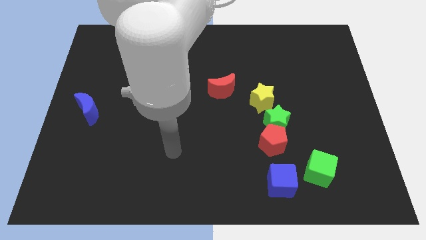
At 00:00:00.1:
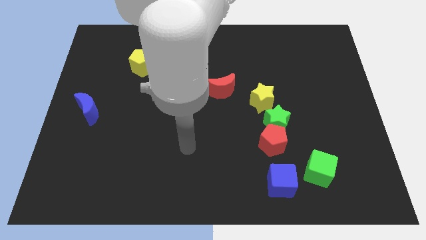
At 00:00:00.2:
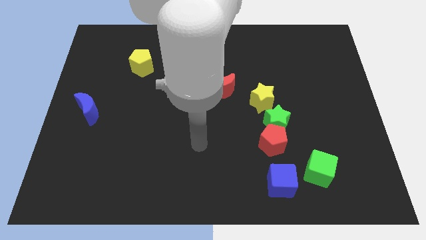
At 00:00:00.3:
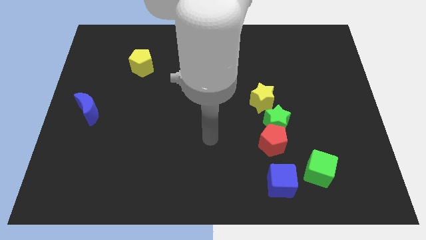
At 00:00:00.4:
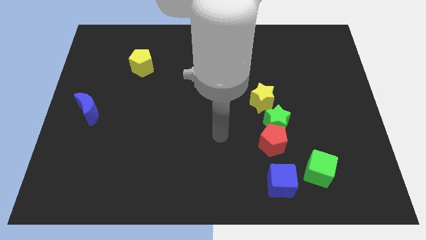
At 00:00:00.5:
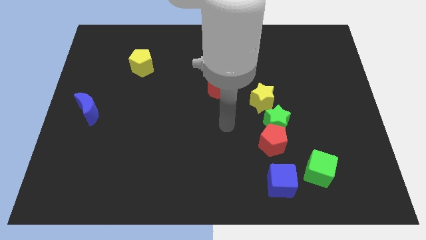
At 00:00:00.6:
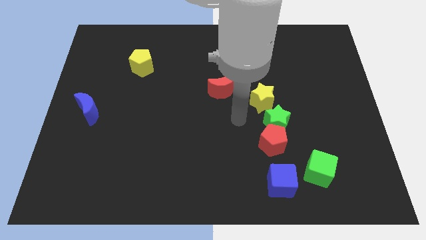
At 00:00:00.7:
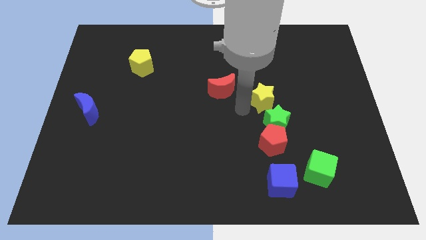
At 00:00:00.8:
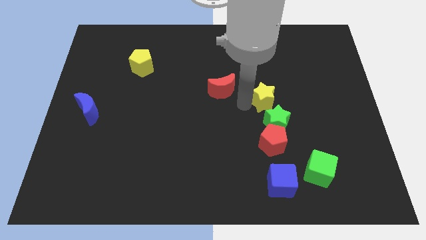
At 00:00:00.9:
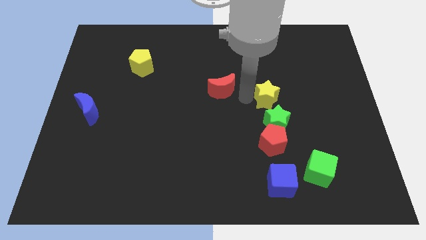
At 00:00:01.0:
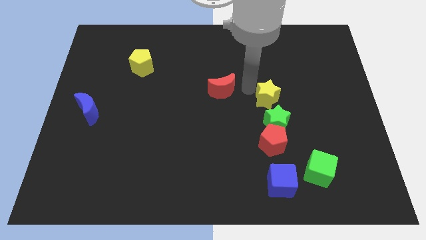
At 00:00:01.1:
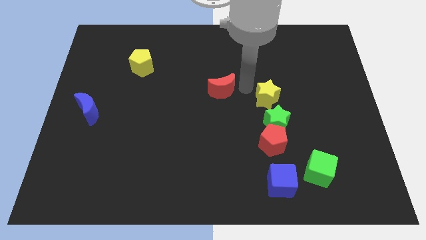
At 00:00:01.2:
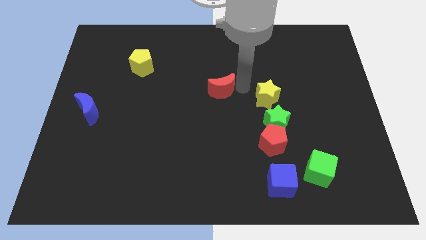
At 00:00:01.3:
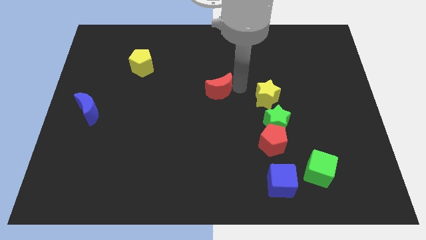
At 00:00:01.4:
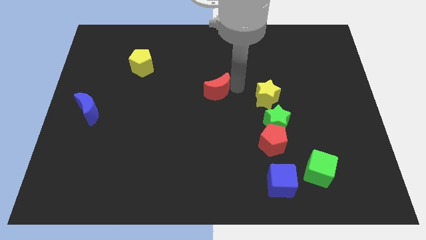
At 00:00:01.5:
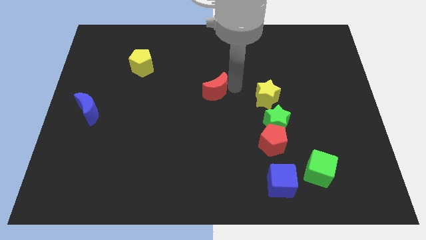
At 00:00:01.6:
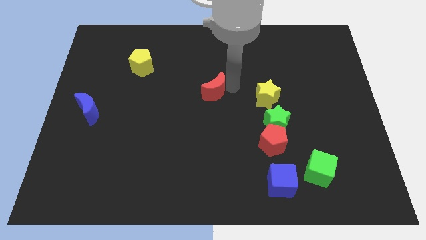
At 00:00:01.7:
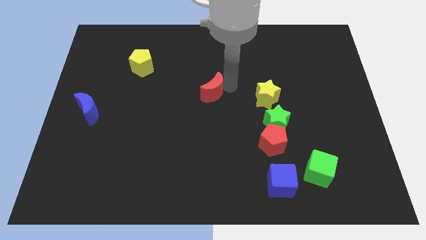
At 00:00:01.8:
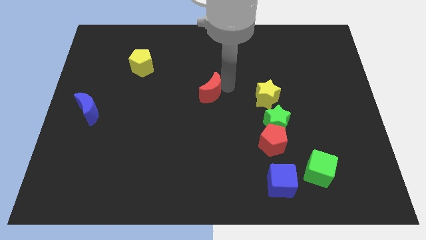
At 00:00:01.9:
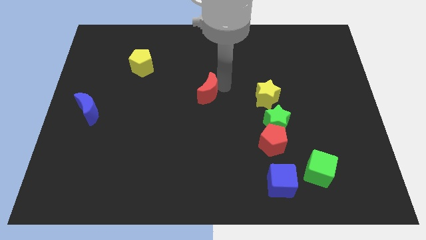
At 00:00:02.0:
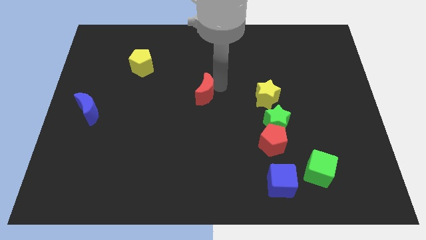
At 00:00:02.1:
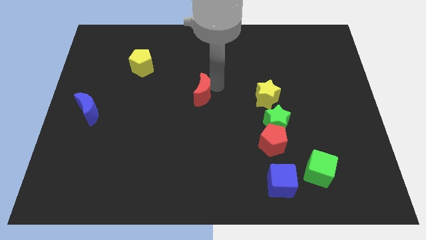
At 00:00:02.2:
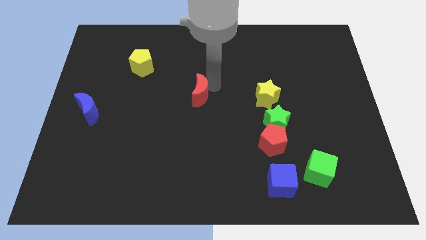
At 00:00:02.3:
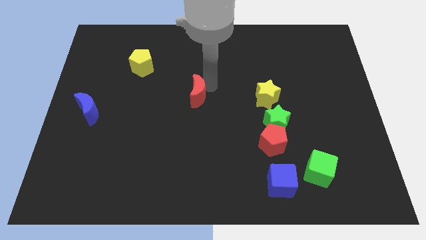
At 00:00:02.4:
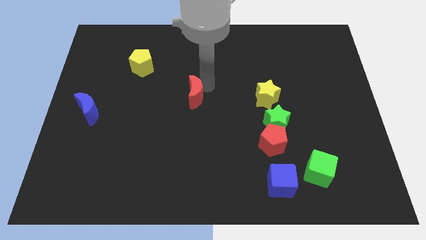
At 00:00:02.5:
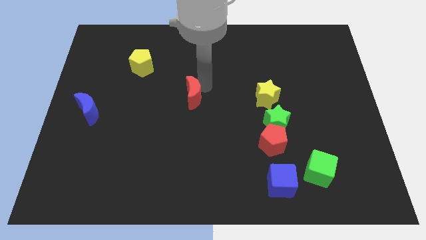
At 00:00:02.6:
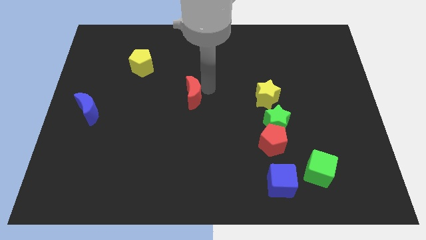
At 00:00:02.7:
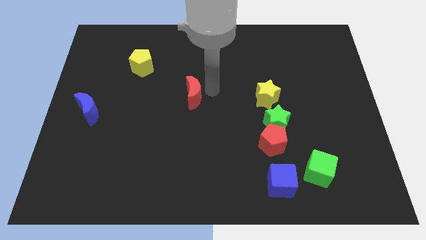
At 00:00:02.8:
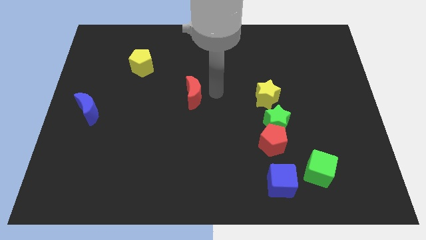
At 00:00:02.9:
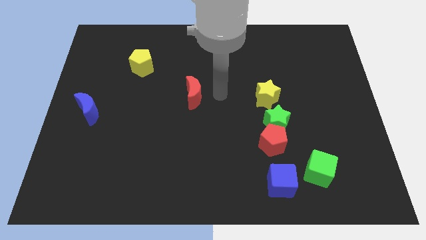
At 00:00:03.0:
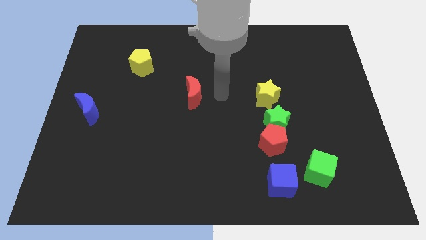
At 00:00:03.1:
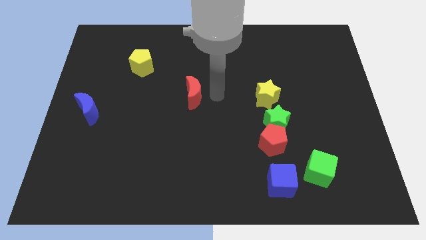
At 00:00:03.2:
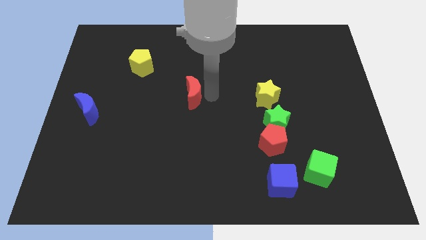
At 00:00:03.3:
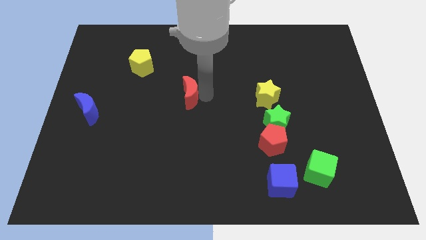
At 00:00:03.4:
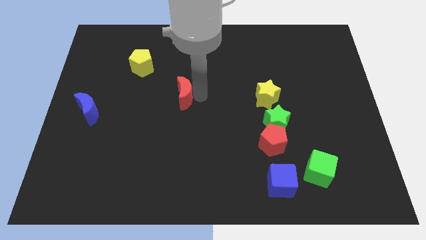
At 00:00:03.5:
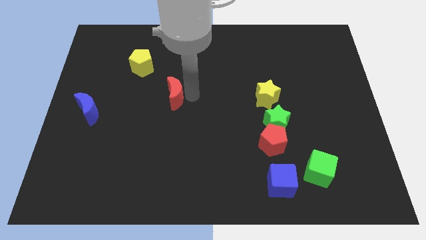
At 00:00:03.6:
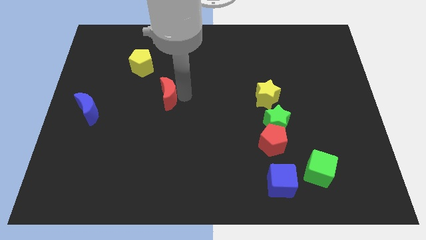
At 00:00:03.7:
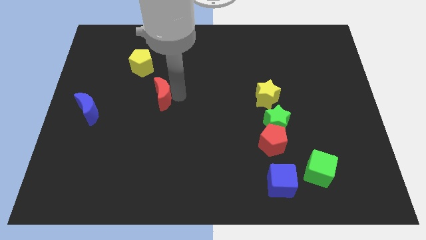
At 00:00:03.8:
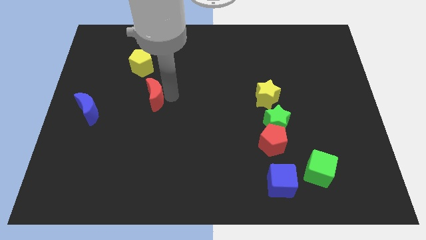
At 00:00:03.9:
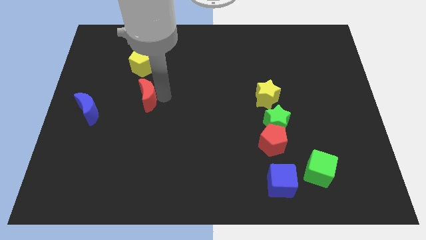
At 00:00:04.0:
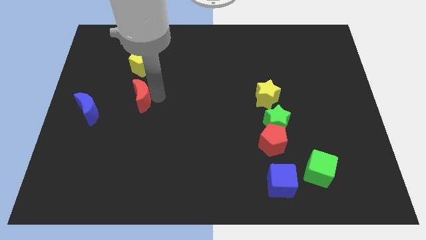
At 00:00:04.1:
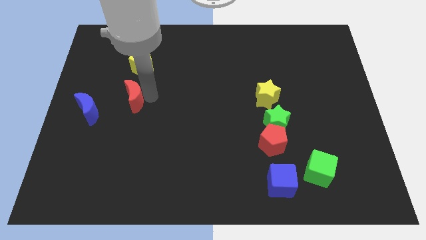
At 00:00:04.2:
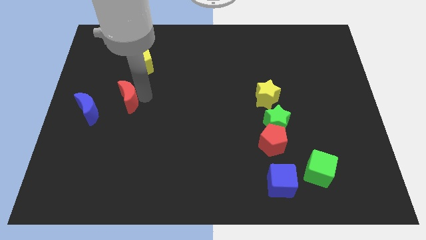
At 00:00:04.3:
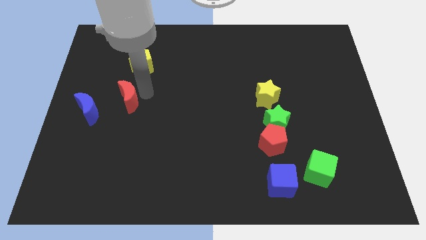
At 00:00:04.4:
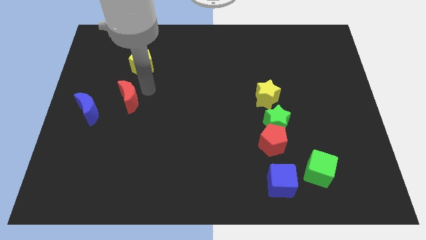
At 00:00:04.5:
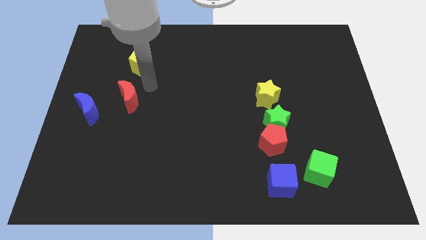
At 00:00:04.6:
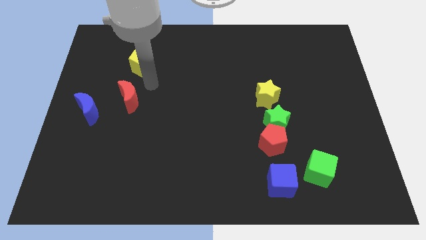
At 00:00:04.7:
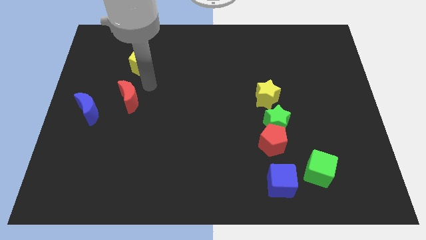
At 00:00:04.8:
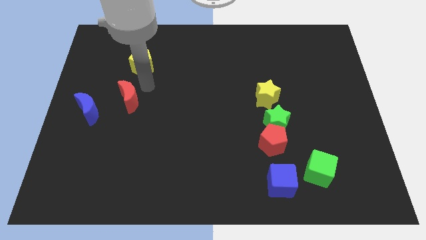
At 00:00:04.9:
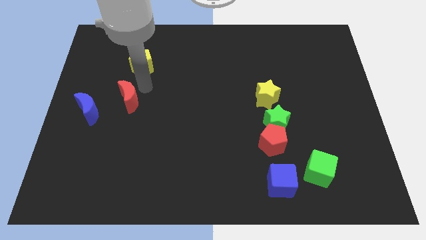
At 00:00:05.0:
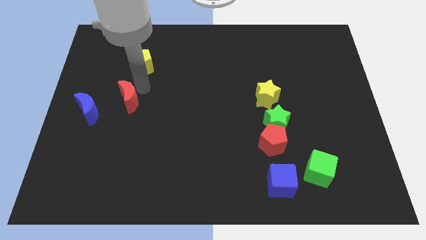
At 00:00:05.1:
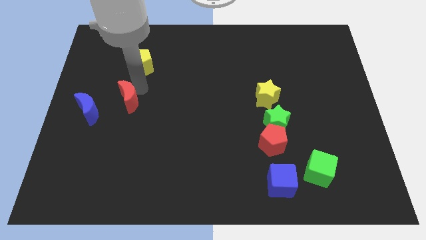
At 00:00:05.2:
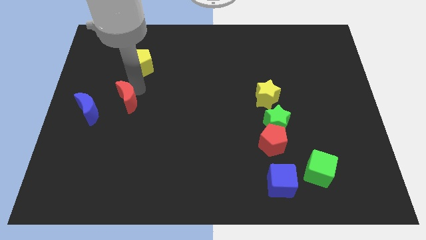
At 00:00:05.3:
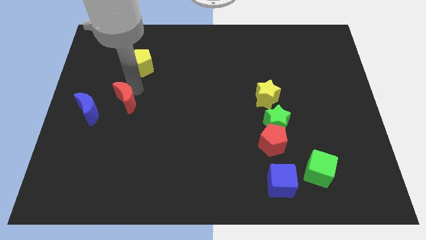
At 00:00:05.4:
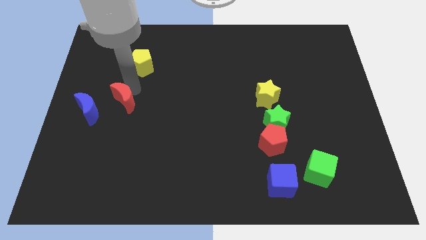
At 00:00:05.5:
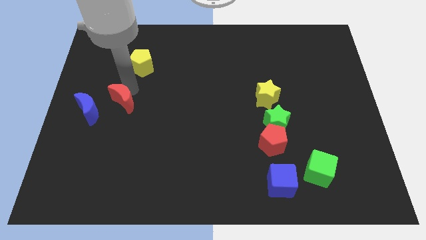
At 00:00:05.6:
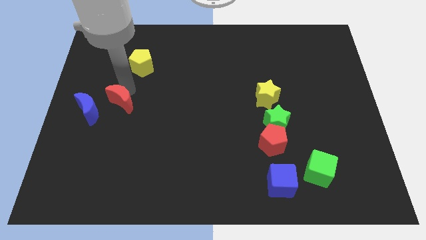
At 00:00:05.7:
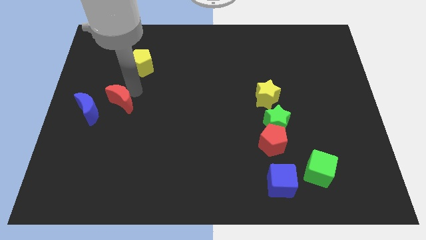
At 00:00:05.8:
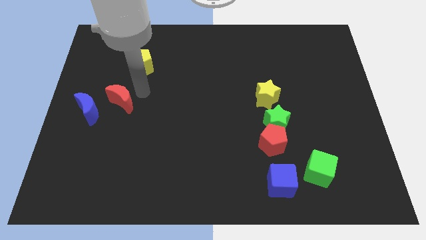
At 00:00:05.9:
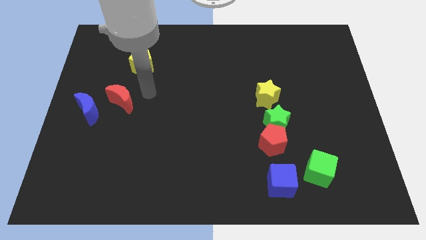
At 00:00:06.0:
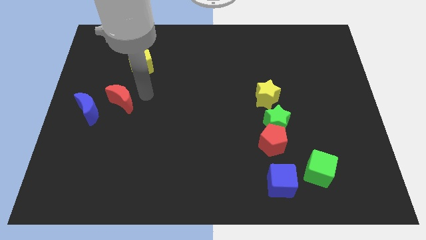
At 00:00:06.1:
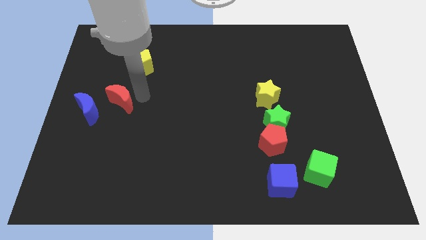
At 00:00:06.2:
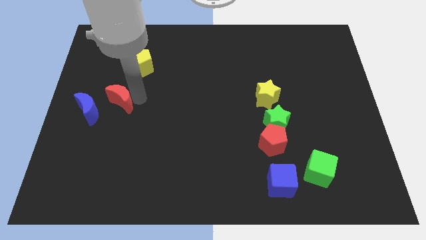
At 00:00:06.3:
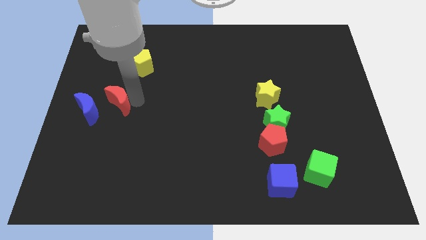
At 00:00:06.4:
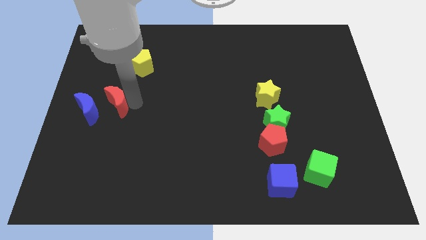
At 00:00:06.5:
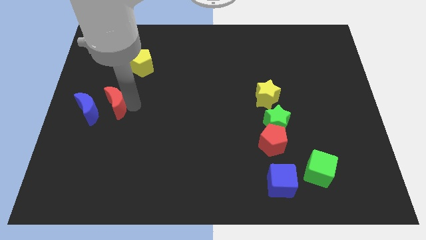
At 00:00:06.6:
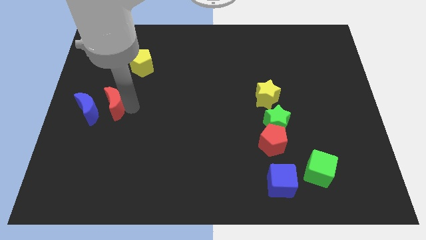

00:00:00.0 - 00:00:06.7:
move the red moon next to the blue moon

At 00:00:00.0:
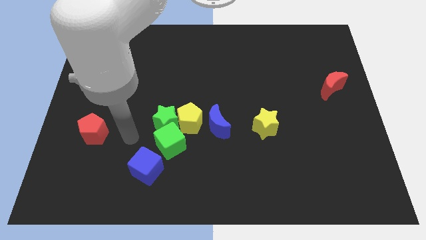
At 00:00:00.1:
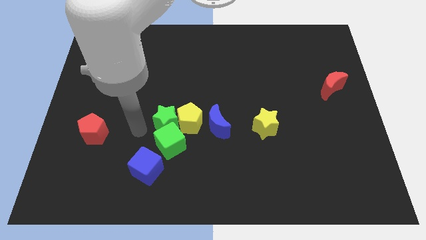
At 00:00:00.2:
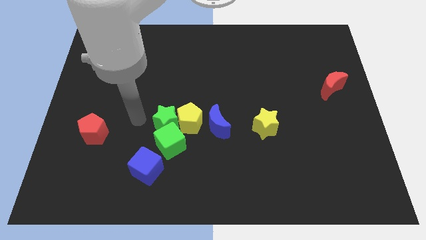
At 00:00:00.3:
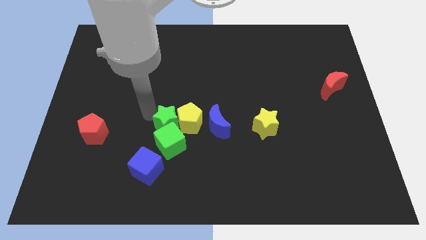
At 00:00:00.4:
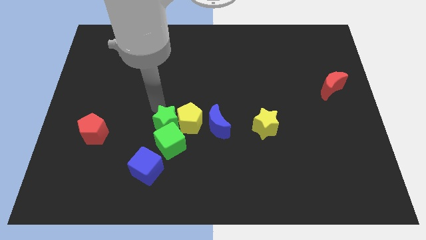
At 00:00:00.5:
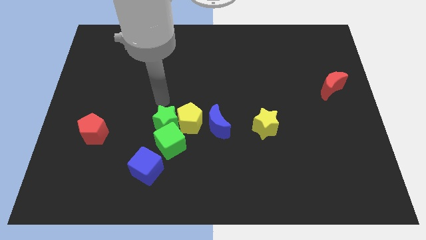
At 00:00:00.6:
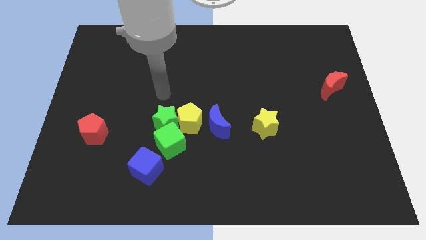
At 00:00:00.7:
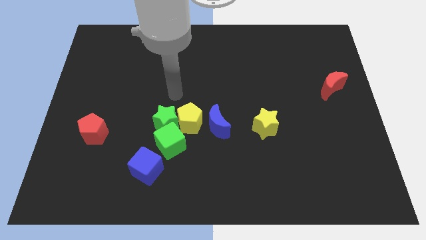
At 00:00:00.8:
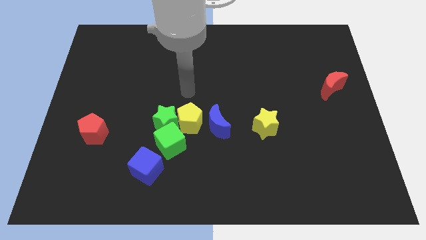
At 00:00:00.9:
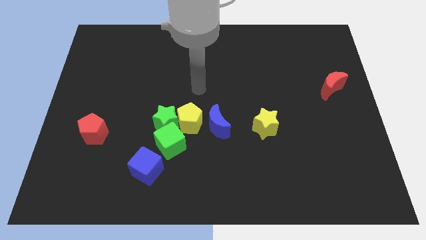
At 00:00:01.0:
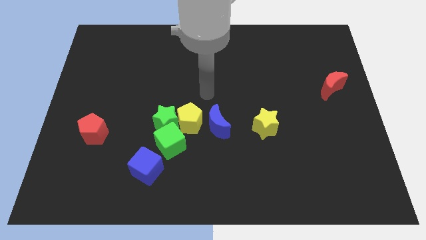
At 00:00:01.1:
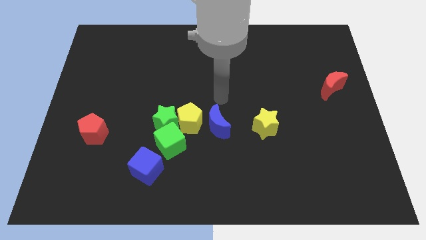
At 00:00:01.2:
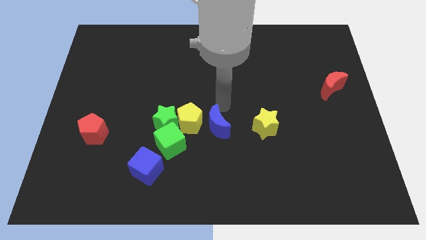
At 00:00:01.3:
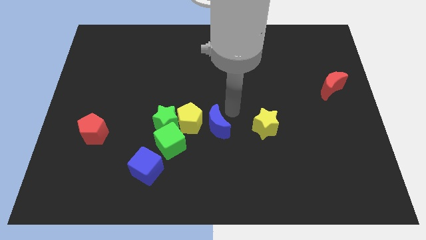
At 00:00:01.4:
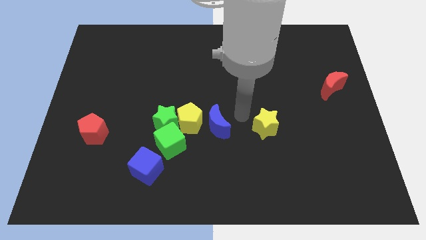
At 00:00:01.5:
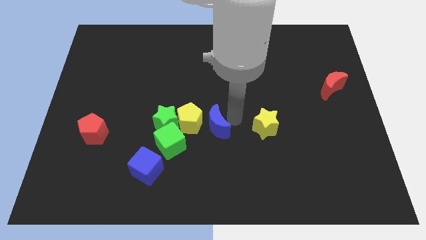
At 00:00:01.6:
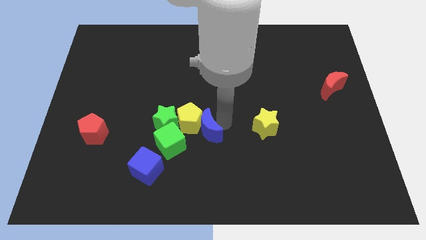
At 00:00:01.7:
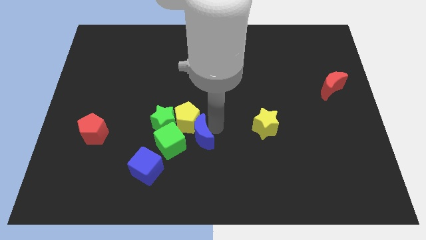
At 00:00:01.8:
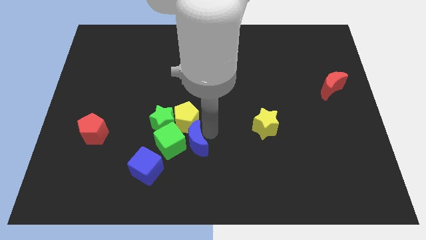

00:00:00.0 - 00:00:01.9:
slide the blue moon towards the green cube
